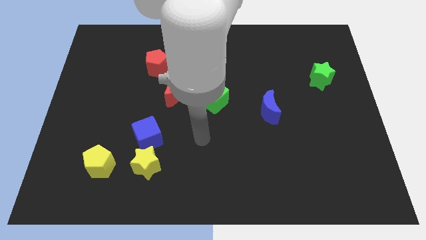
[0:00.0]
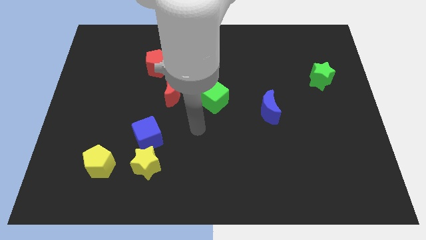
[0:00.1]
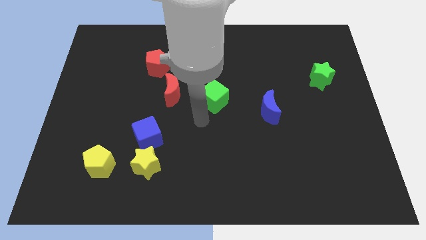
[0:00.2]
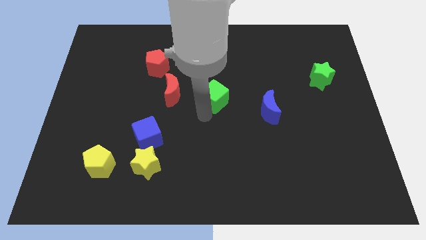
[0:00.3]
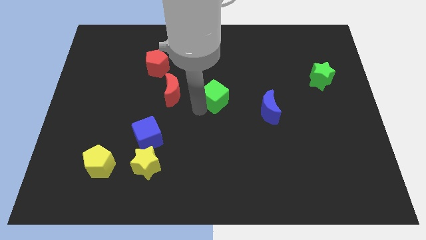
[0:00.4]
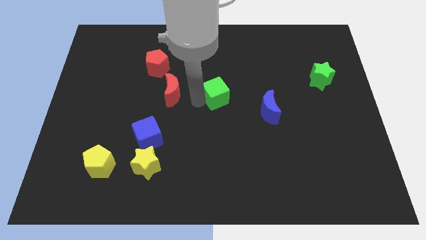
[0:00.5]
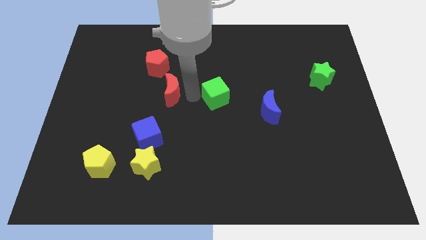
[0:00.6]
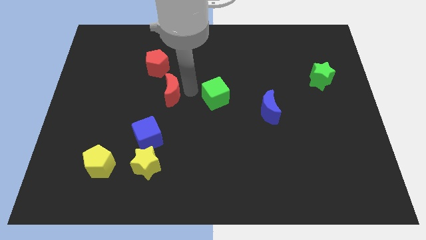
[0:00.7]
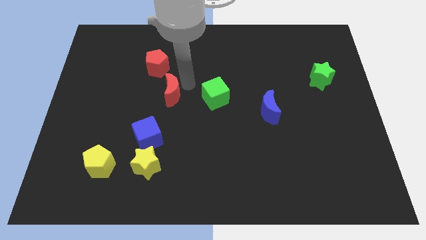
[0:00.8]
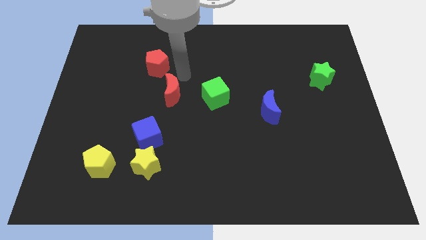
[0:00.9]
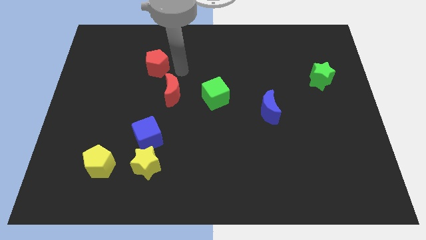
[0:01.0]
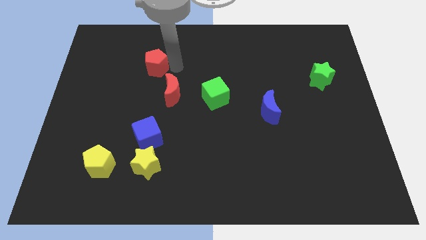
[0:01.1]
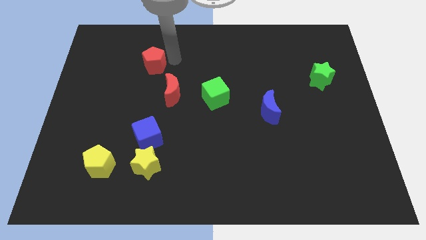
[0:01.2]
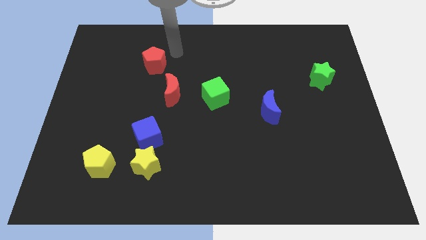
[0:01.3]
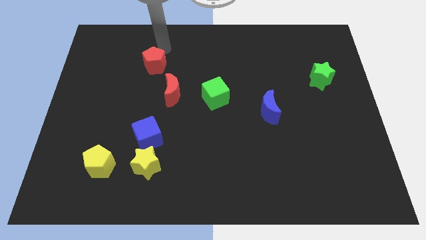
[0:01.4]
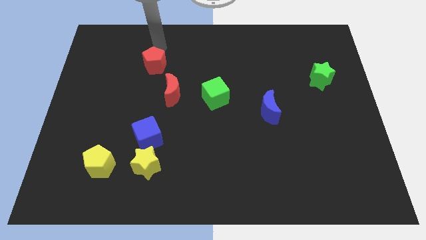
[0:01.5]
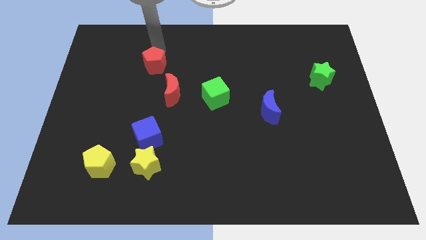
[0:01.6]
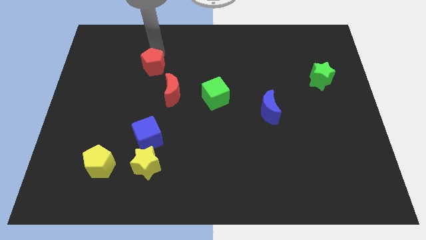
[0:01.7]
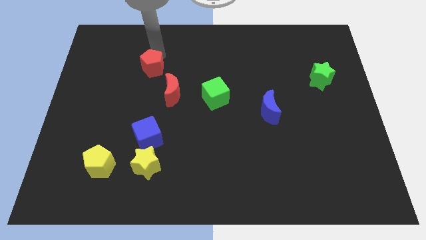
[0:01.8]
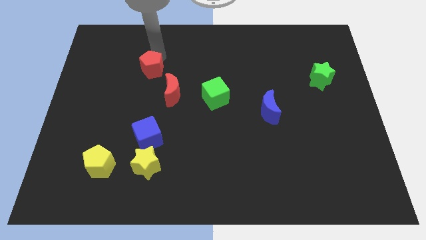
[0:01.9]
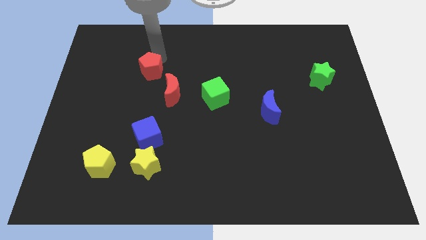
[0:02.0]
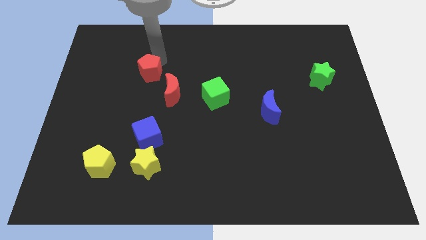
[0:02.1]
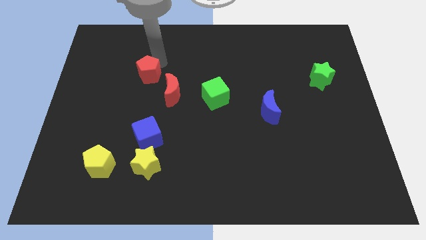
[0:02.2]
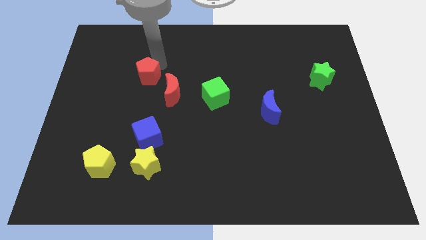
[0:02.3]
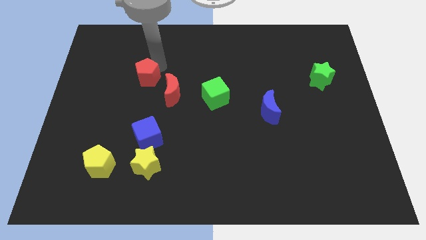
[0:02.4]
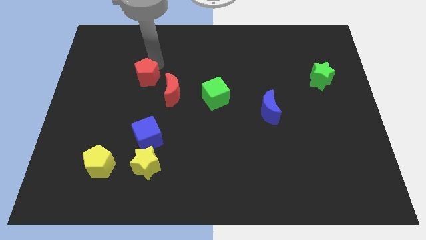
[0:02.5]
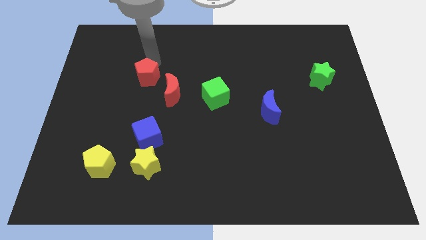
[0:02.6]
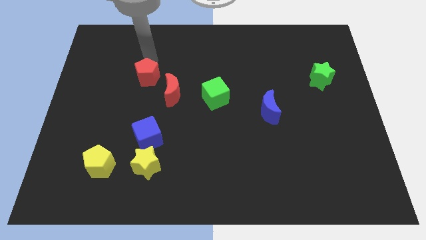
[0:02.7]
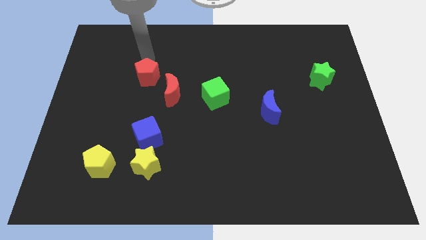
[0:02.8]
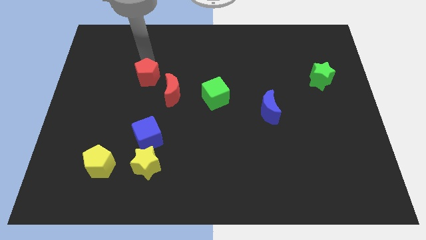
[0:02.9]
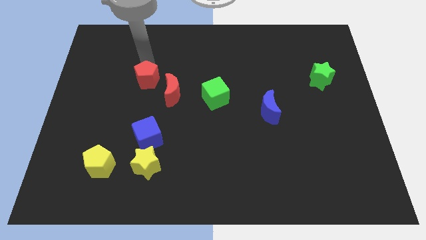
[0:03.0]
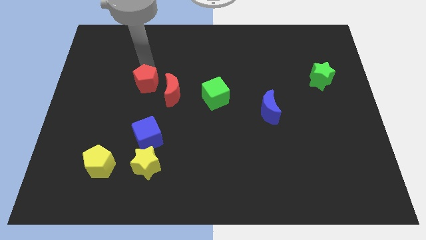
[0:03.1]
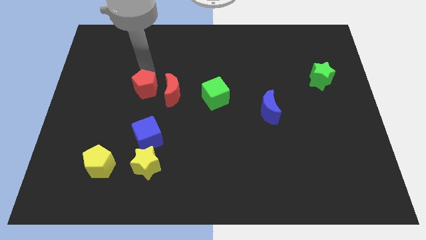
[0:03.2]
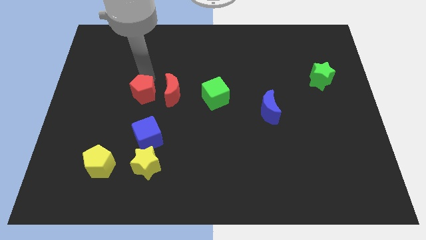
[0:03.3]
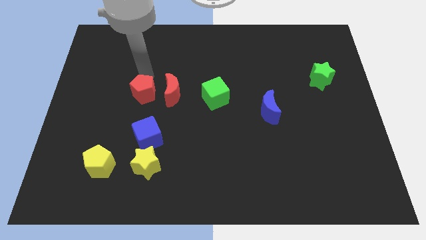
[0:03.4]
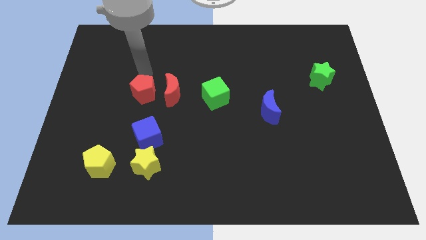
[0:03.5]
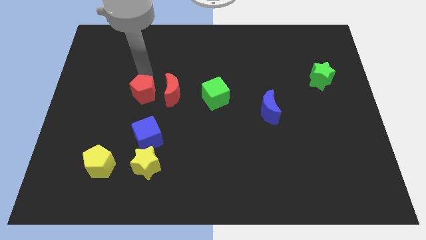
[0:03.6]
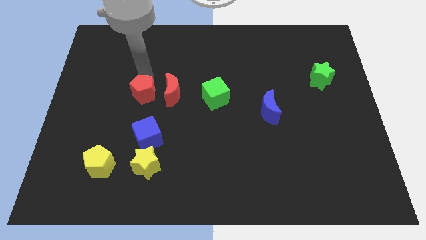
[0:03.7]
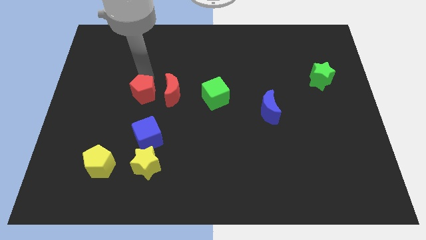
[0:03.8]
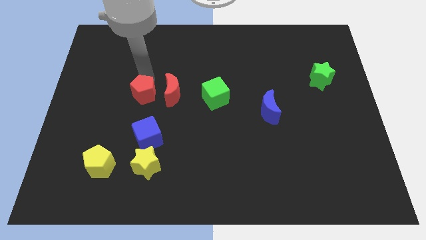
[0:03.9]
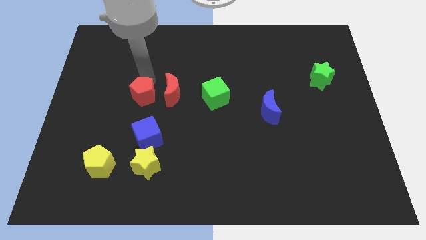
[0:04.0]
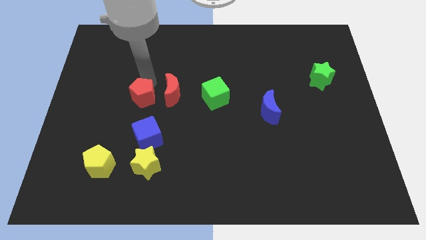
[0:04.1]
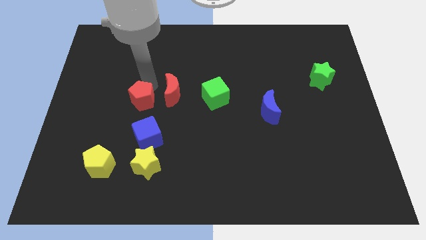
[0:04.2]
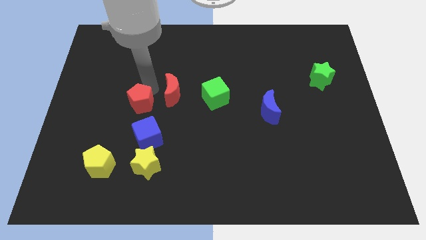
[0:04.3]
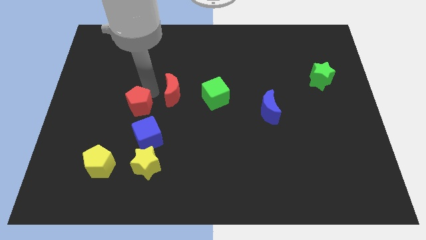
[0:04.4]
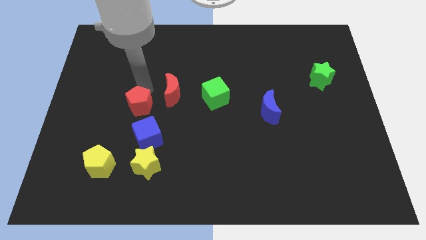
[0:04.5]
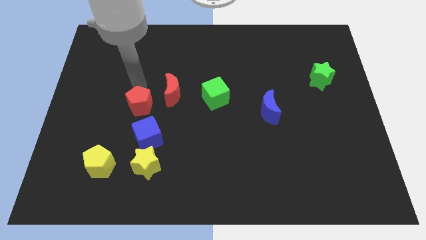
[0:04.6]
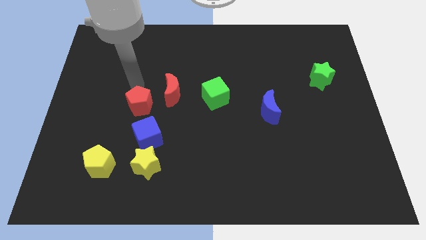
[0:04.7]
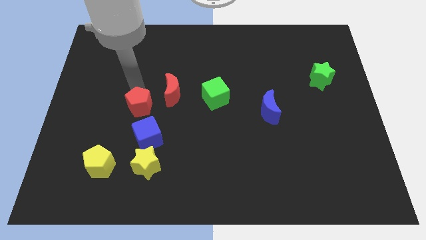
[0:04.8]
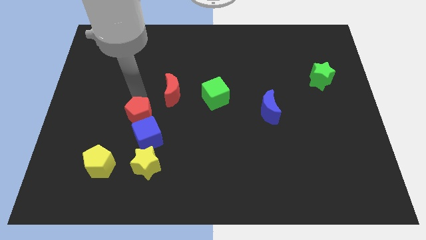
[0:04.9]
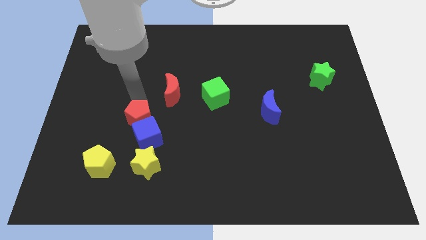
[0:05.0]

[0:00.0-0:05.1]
move the red pentagon to the blue cube

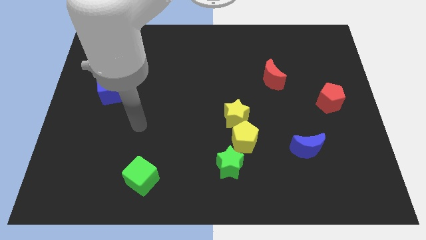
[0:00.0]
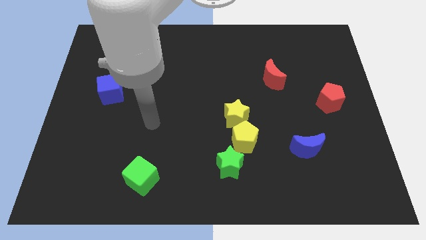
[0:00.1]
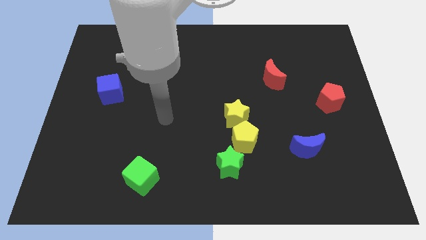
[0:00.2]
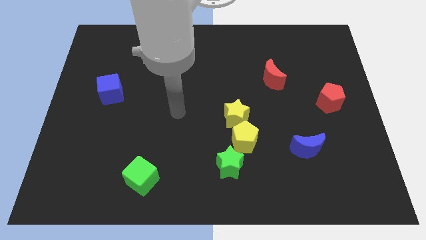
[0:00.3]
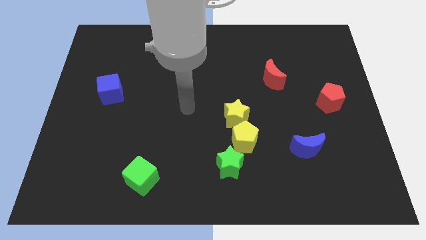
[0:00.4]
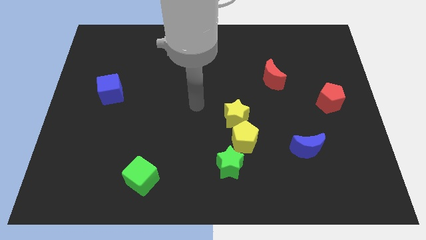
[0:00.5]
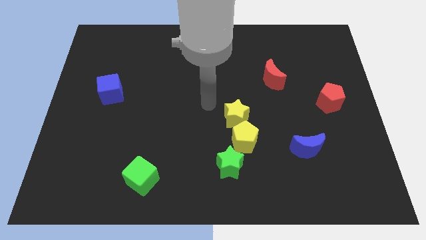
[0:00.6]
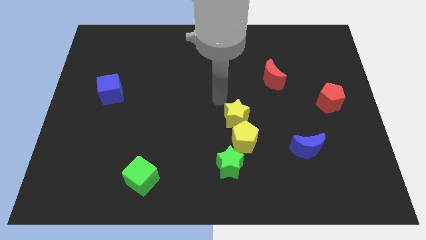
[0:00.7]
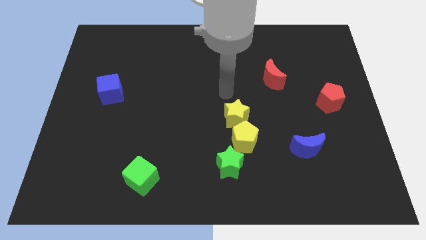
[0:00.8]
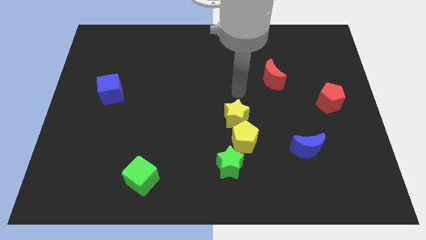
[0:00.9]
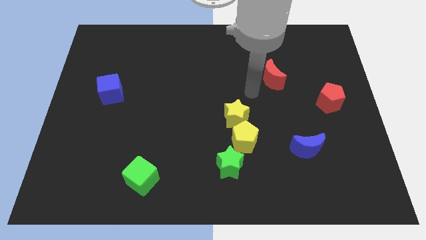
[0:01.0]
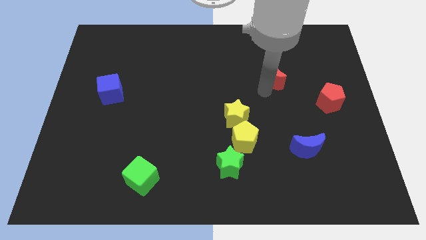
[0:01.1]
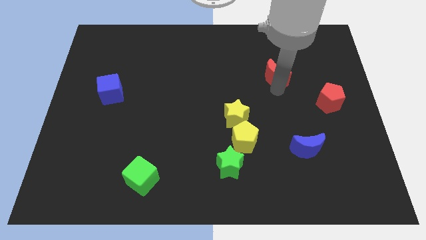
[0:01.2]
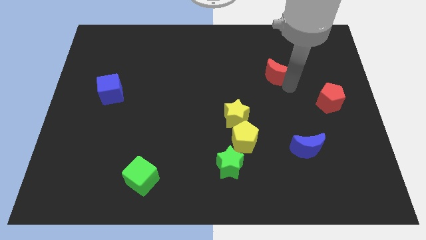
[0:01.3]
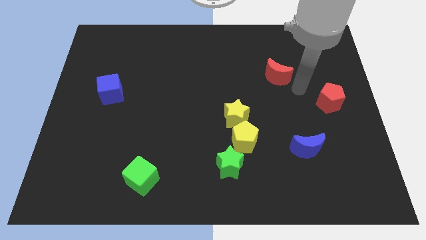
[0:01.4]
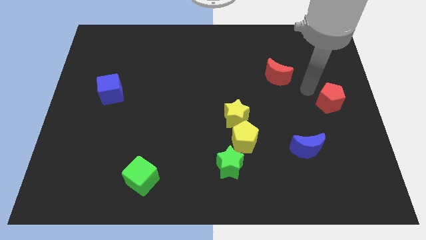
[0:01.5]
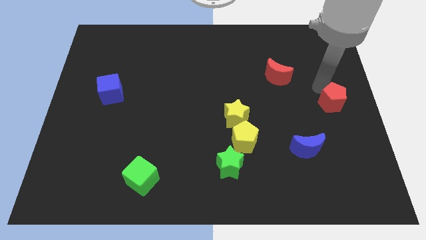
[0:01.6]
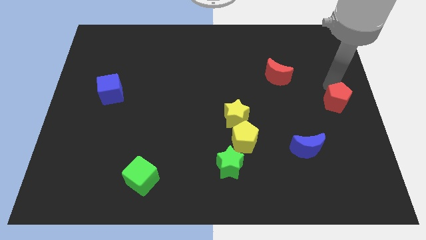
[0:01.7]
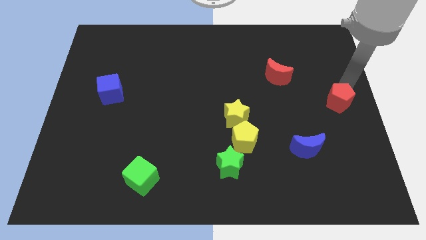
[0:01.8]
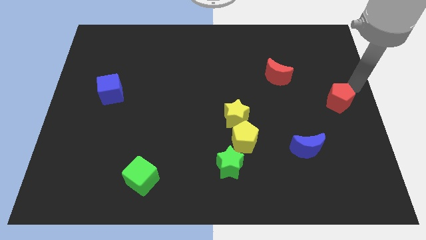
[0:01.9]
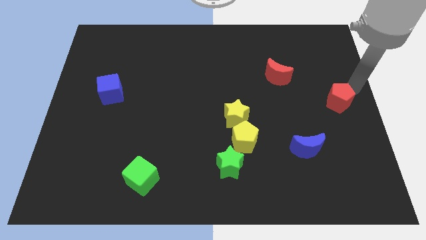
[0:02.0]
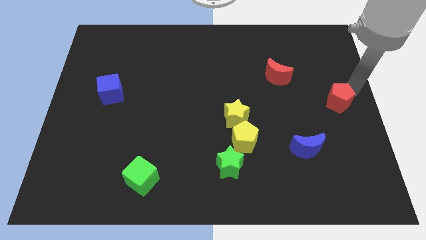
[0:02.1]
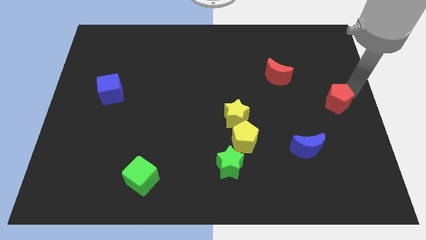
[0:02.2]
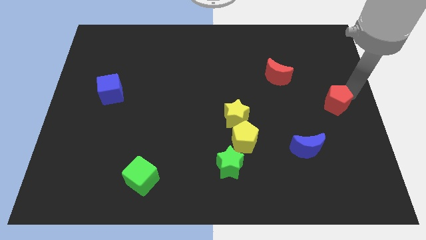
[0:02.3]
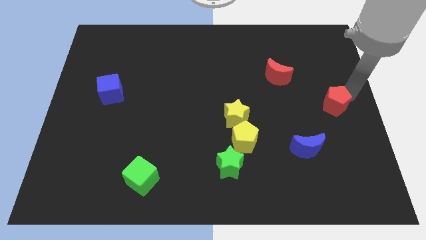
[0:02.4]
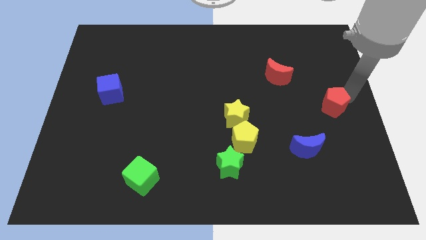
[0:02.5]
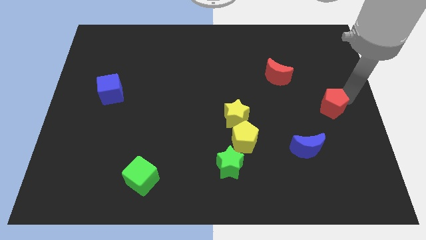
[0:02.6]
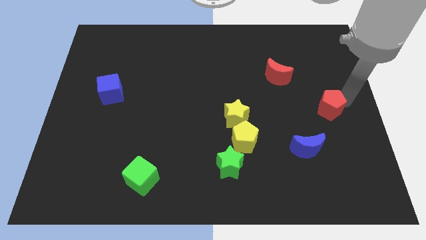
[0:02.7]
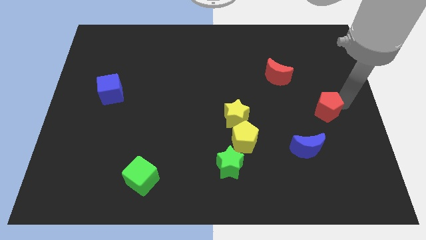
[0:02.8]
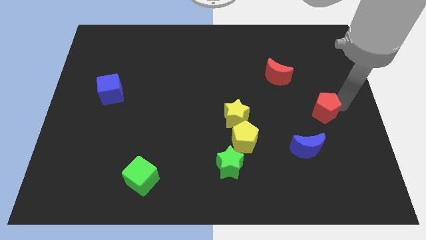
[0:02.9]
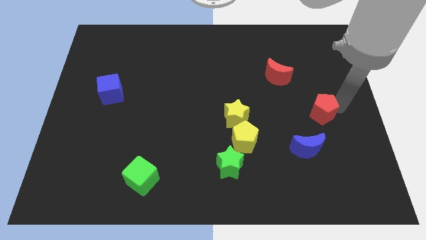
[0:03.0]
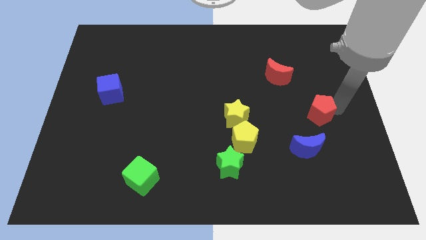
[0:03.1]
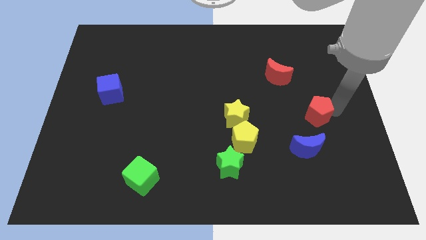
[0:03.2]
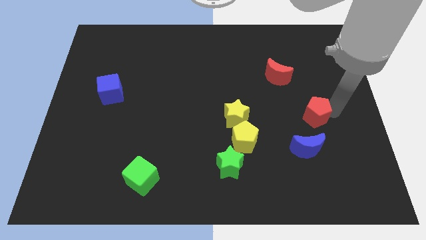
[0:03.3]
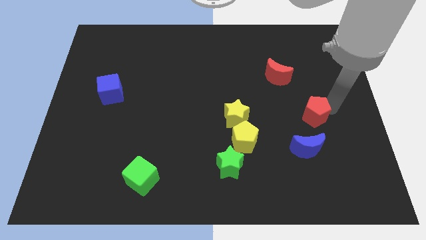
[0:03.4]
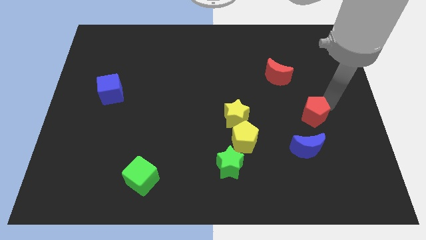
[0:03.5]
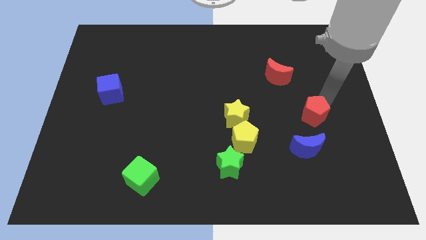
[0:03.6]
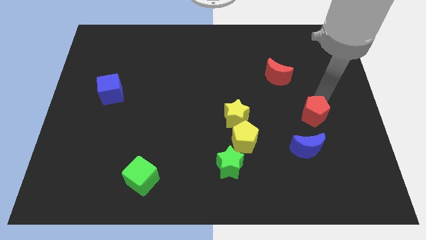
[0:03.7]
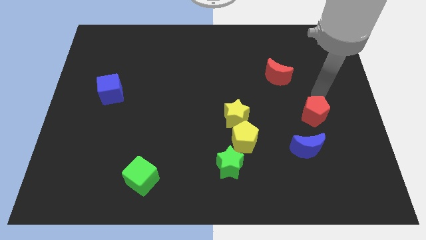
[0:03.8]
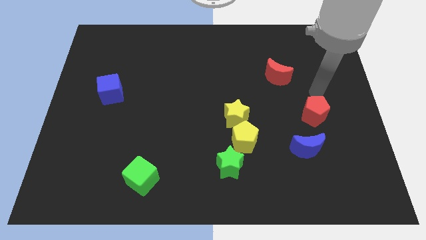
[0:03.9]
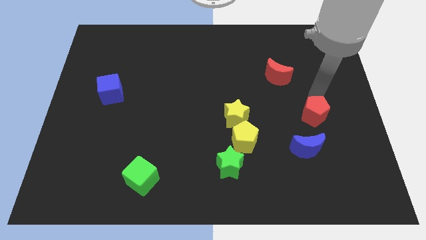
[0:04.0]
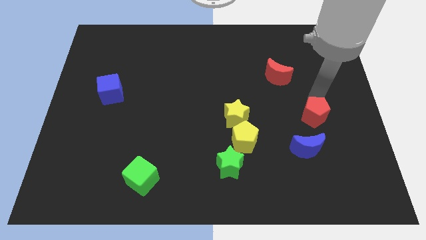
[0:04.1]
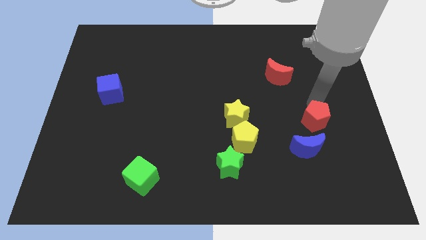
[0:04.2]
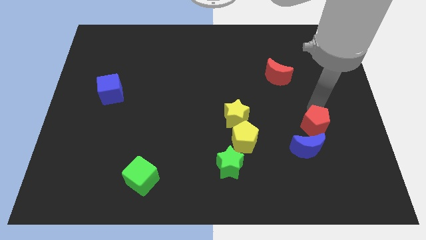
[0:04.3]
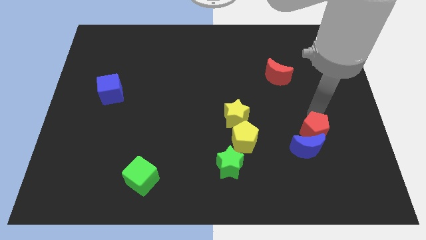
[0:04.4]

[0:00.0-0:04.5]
push the red pentagon towards the blue moon
